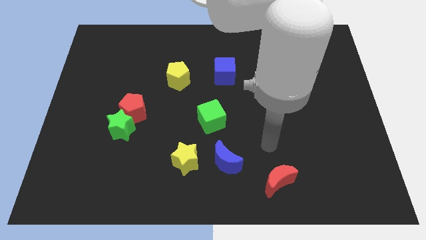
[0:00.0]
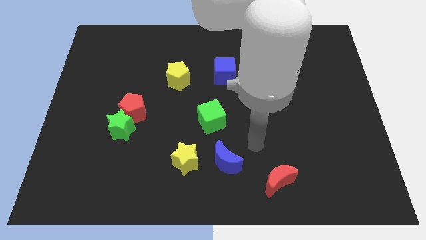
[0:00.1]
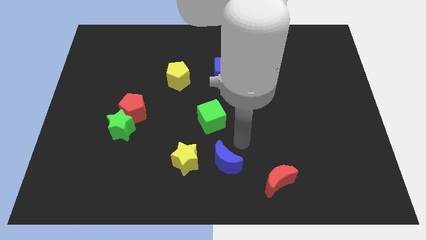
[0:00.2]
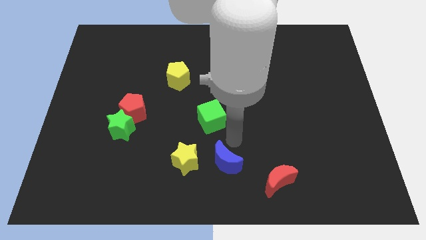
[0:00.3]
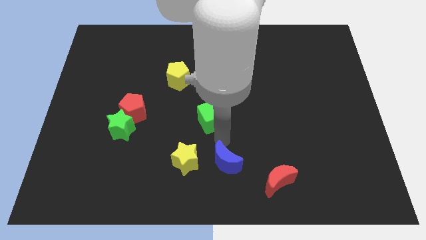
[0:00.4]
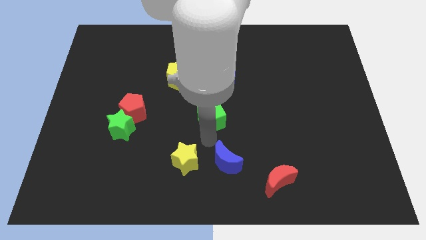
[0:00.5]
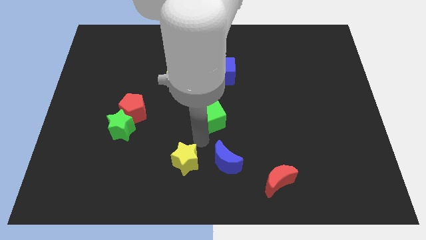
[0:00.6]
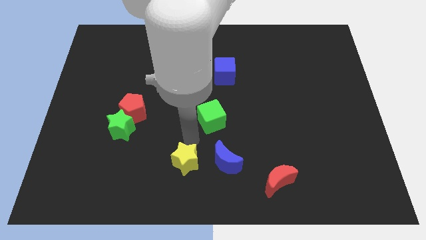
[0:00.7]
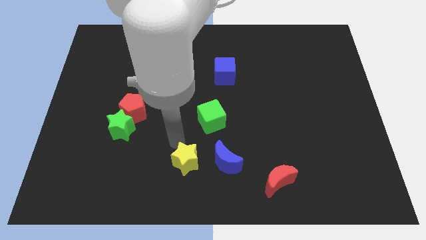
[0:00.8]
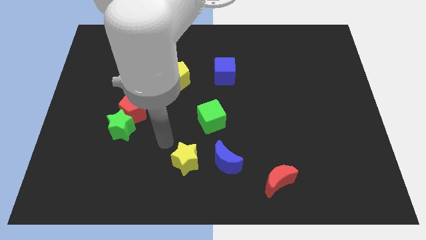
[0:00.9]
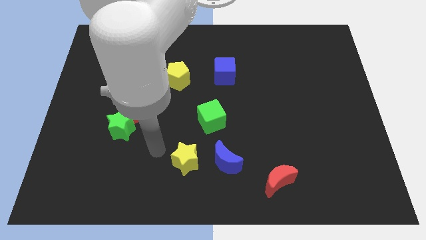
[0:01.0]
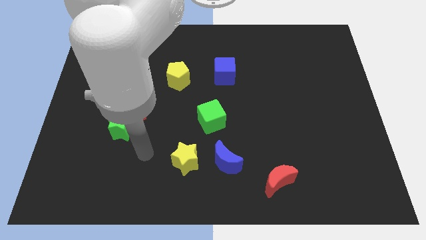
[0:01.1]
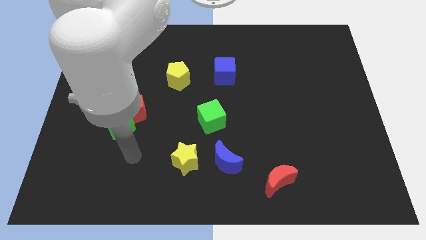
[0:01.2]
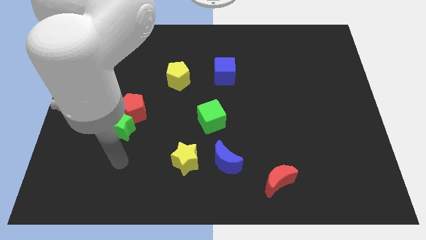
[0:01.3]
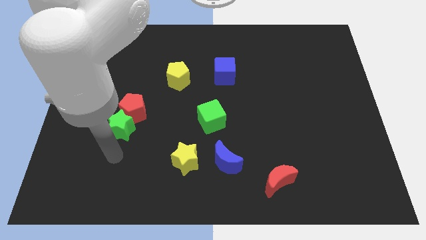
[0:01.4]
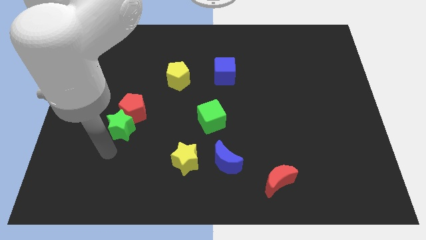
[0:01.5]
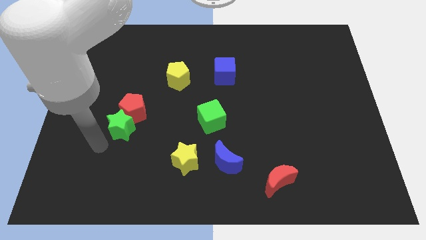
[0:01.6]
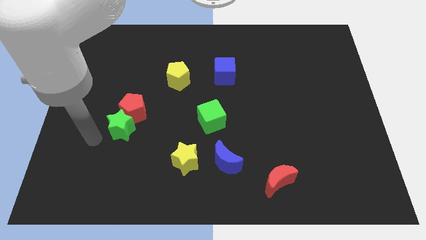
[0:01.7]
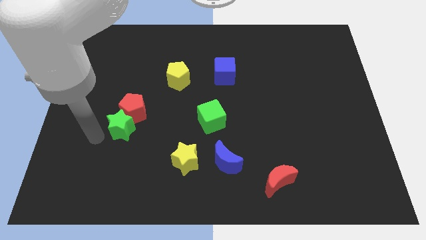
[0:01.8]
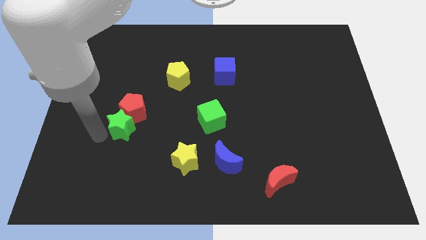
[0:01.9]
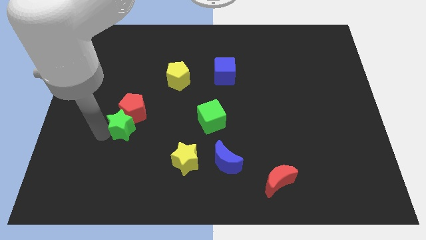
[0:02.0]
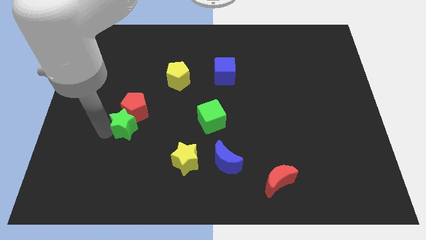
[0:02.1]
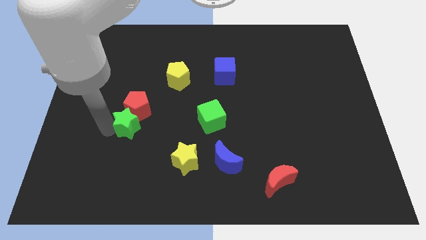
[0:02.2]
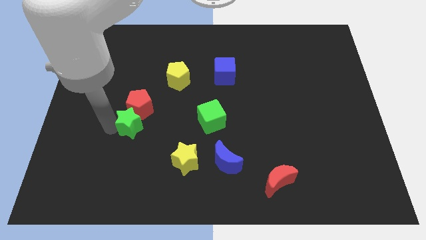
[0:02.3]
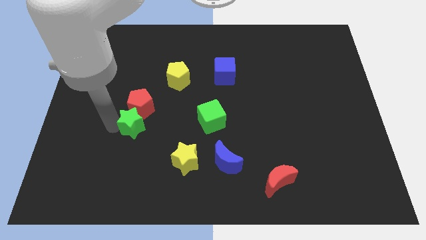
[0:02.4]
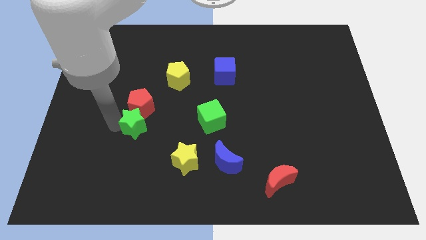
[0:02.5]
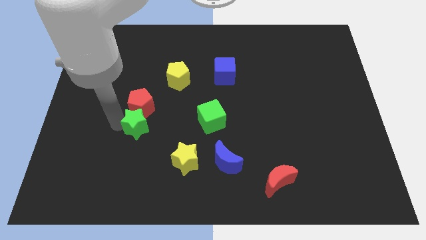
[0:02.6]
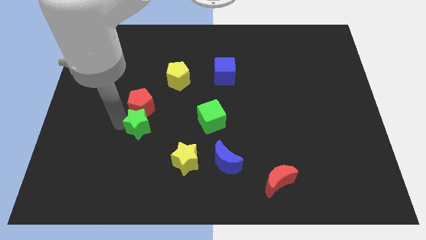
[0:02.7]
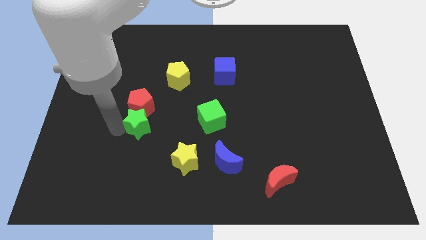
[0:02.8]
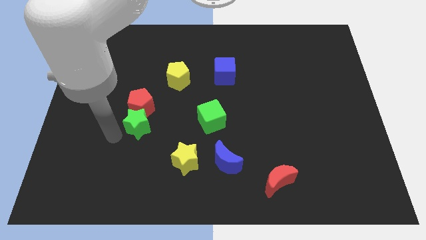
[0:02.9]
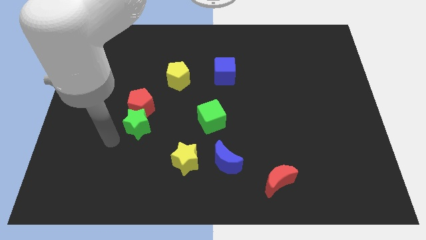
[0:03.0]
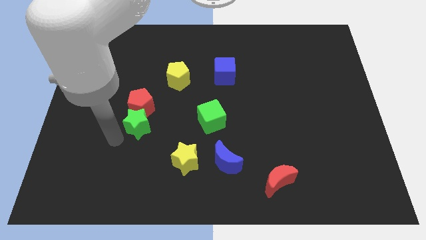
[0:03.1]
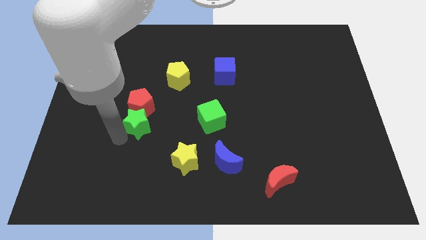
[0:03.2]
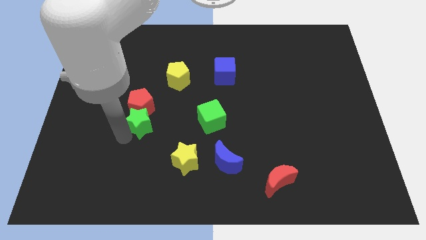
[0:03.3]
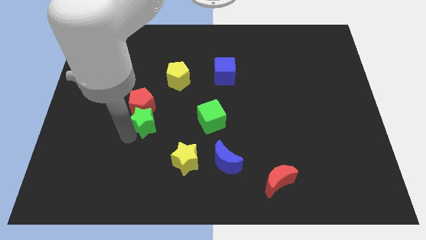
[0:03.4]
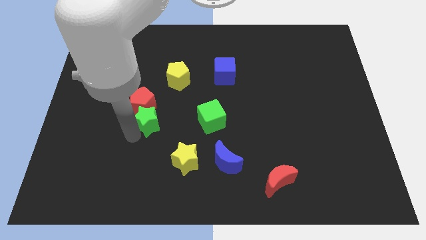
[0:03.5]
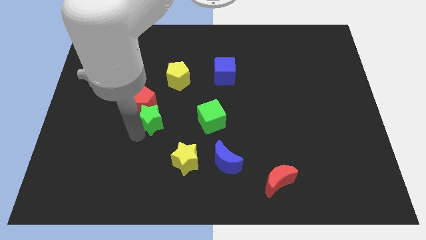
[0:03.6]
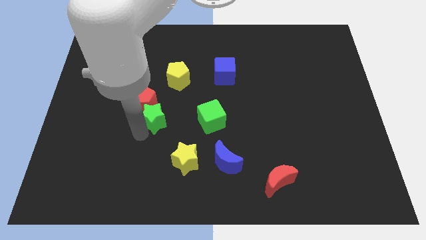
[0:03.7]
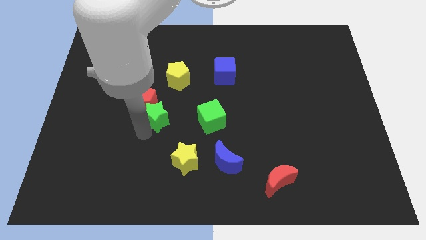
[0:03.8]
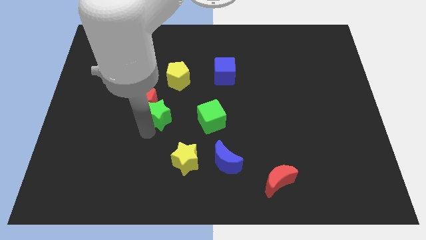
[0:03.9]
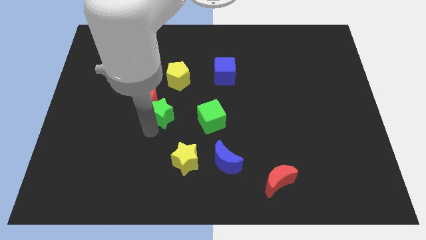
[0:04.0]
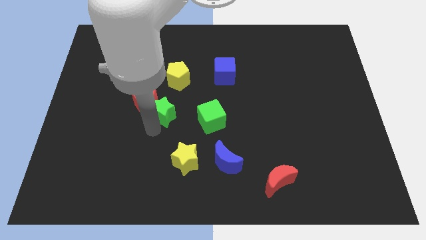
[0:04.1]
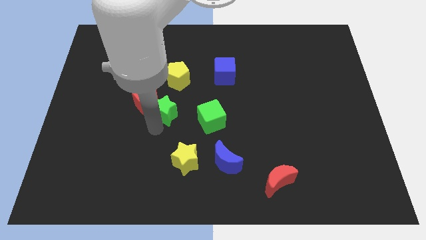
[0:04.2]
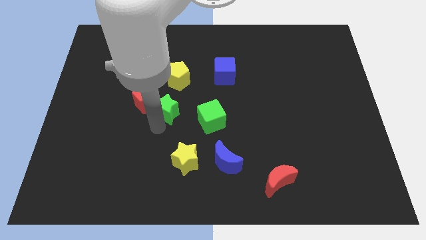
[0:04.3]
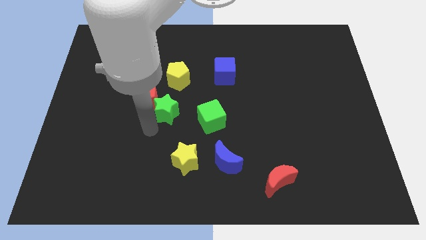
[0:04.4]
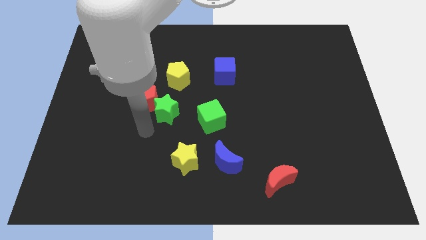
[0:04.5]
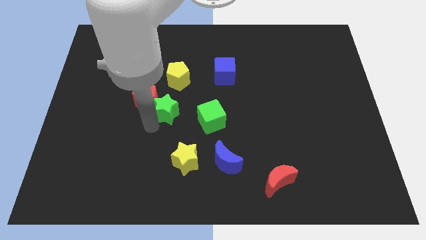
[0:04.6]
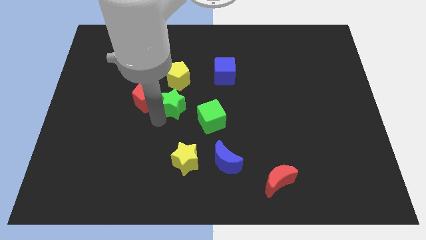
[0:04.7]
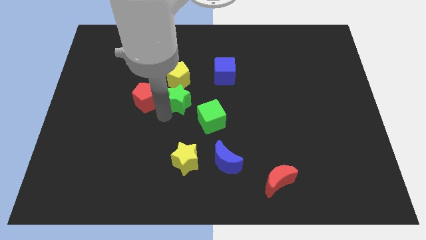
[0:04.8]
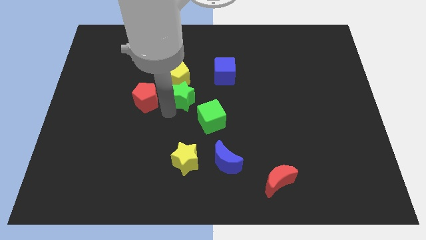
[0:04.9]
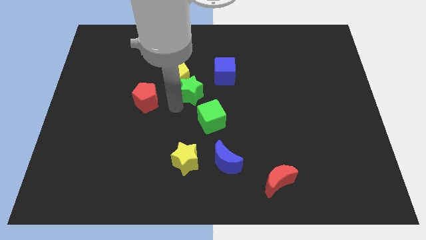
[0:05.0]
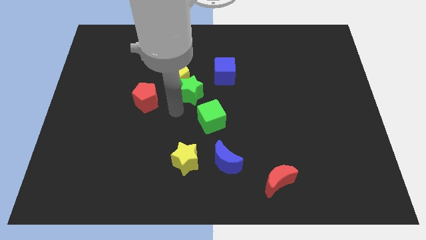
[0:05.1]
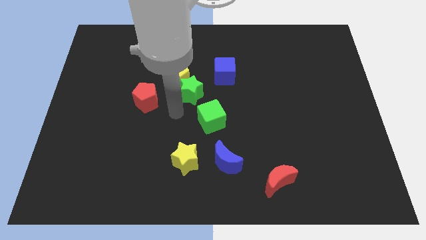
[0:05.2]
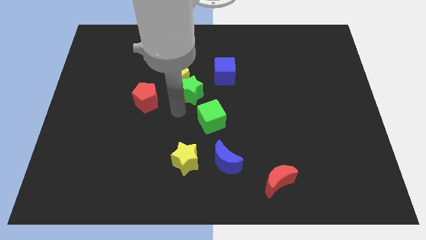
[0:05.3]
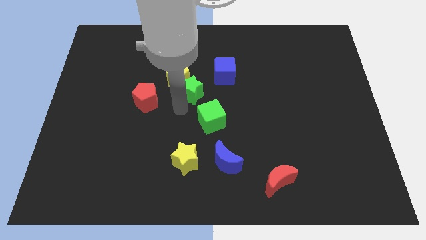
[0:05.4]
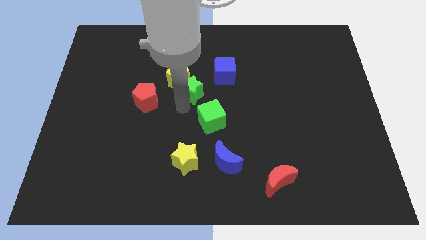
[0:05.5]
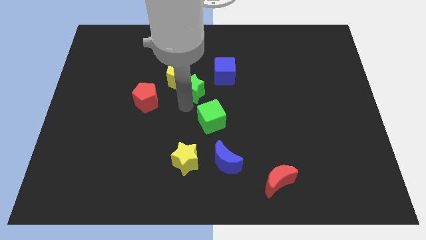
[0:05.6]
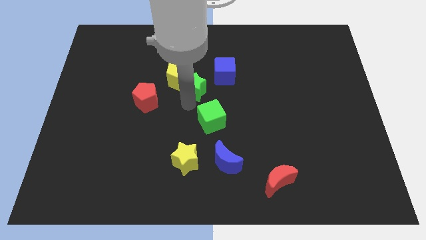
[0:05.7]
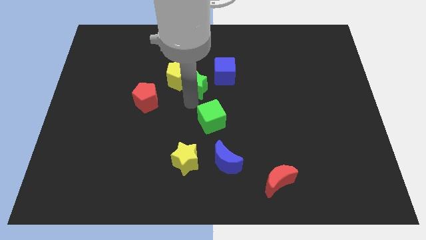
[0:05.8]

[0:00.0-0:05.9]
slide the green star upwards and right

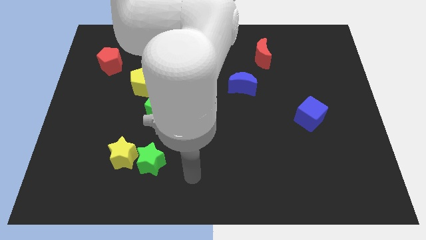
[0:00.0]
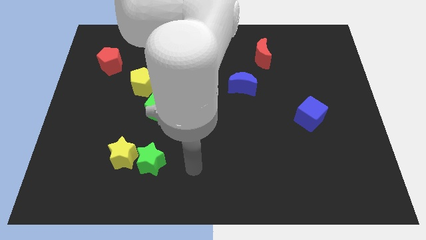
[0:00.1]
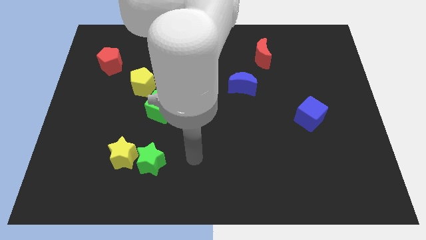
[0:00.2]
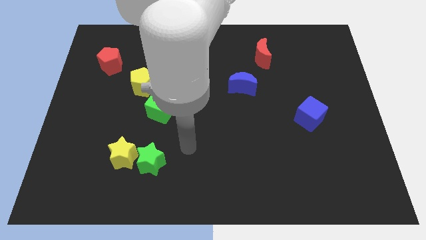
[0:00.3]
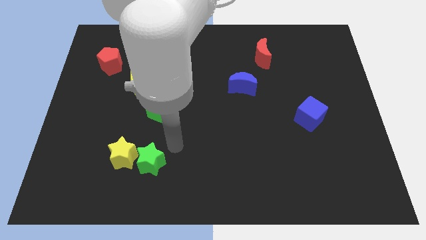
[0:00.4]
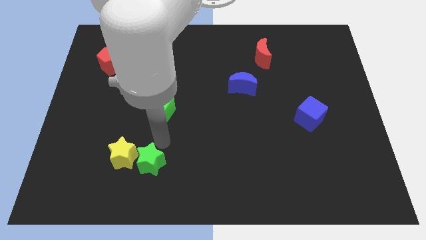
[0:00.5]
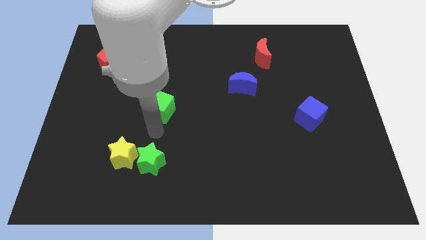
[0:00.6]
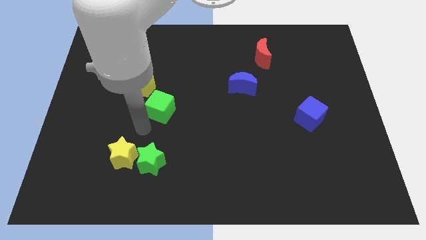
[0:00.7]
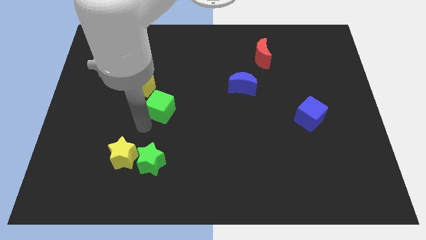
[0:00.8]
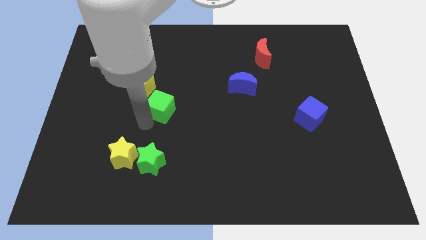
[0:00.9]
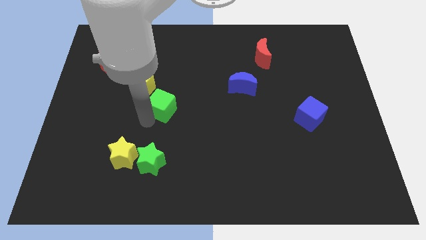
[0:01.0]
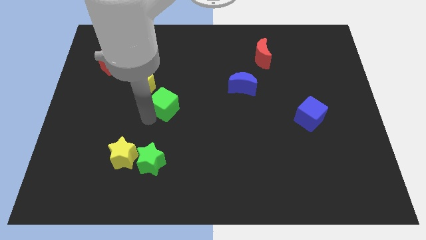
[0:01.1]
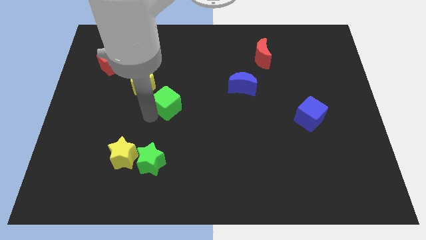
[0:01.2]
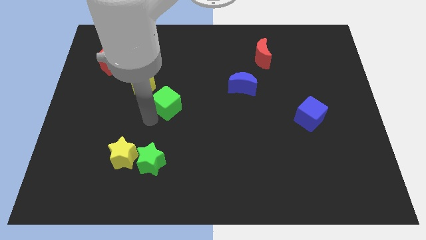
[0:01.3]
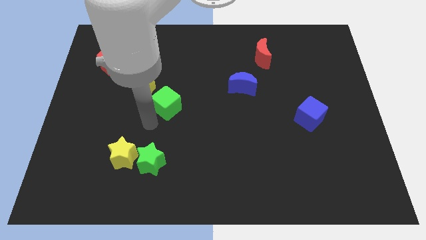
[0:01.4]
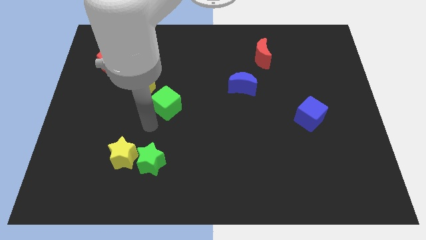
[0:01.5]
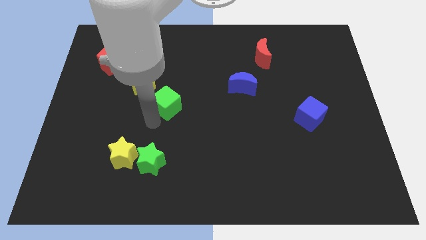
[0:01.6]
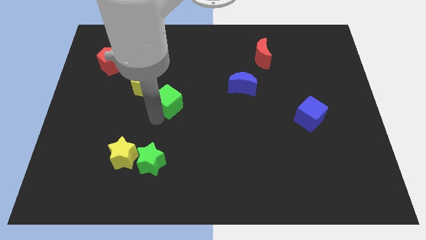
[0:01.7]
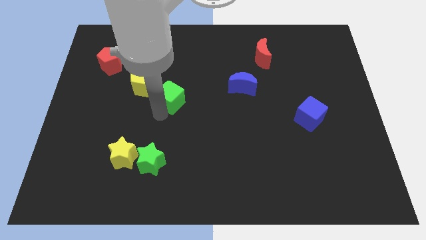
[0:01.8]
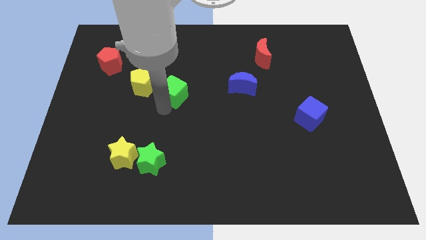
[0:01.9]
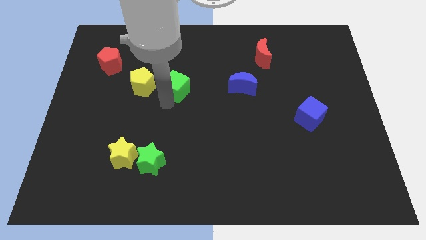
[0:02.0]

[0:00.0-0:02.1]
slightly push the green cube up and then right

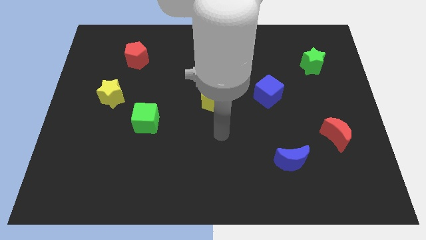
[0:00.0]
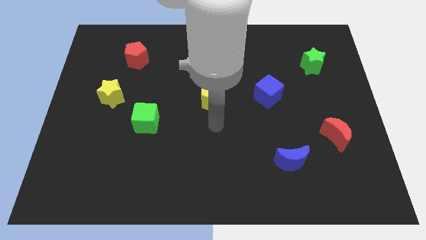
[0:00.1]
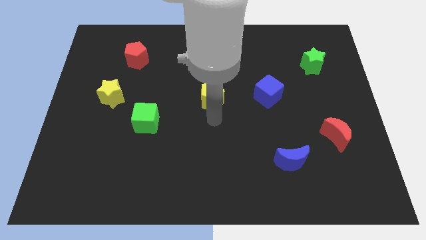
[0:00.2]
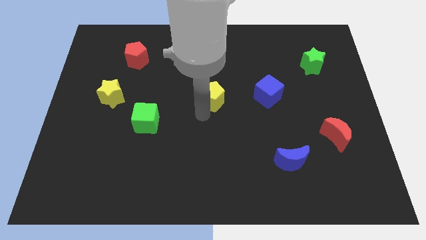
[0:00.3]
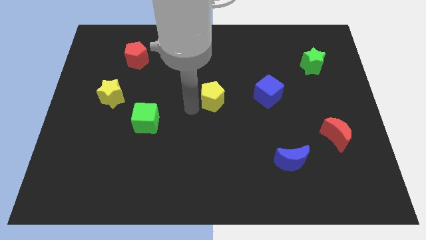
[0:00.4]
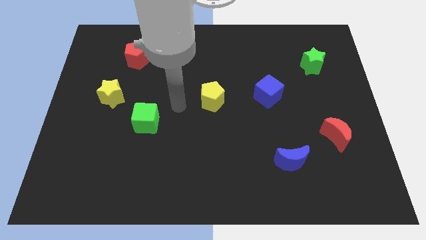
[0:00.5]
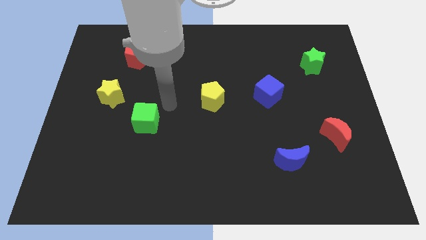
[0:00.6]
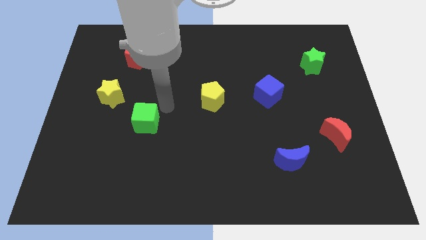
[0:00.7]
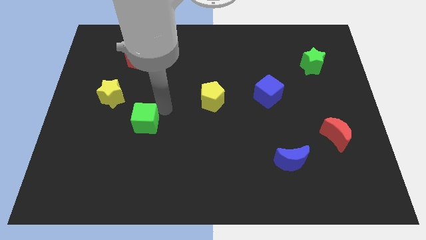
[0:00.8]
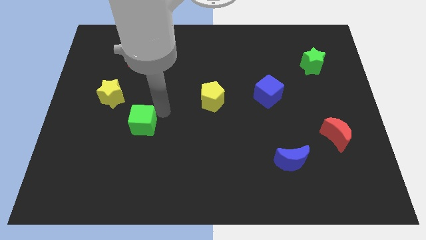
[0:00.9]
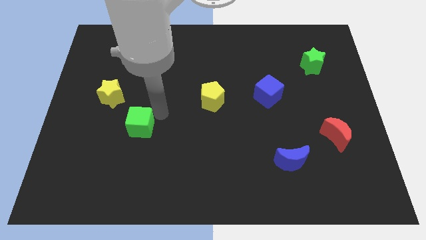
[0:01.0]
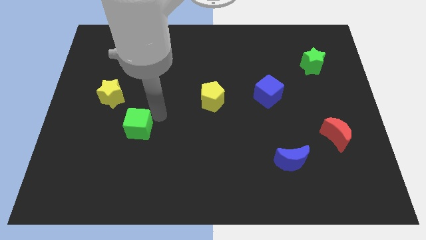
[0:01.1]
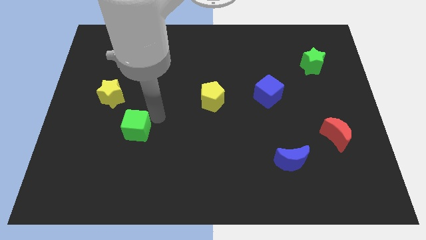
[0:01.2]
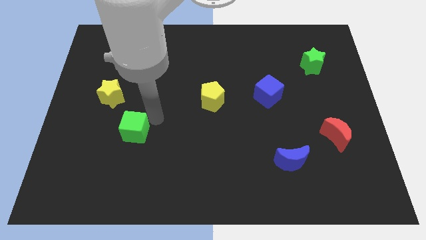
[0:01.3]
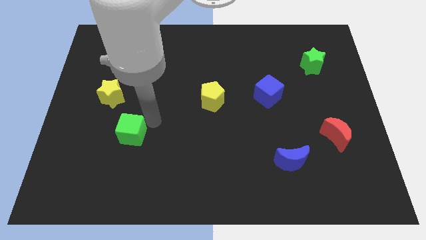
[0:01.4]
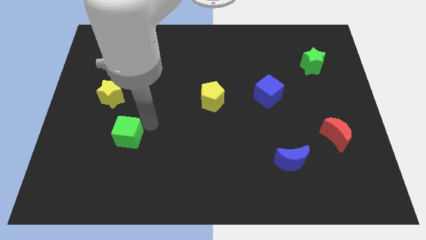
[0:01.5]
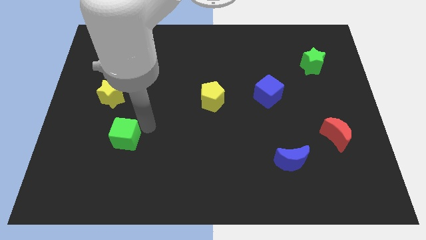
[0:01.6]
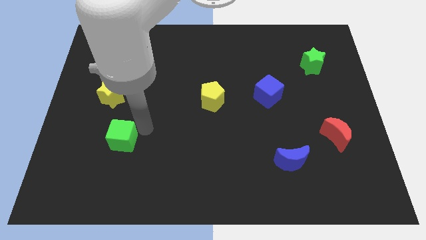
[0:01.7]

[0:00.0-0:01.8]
push the green cube downwards and then left somewhat
